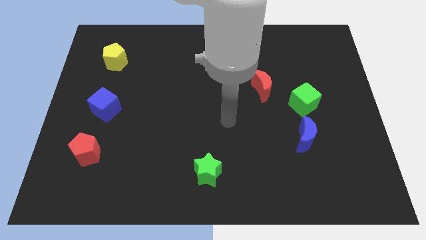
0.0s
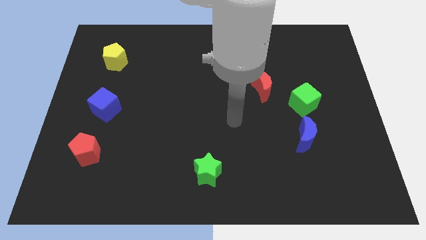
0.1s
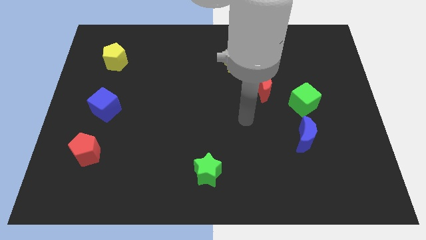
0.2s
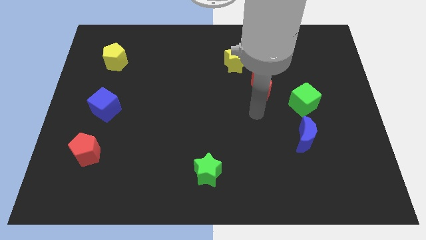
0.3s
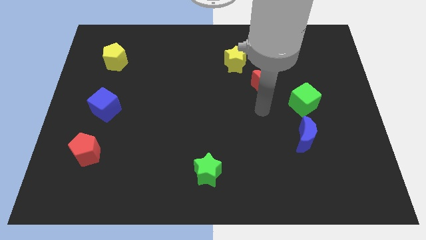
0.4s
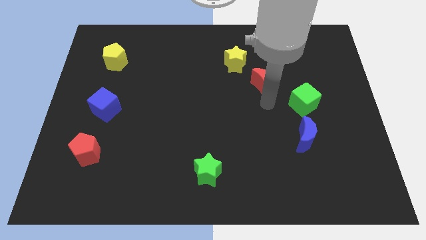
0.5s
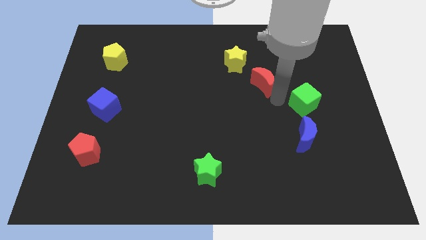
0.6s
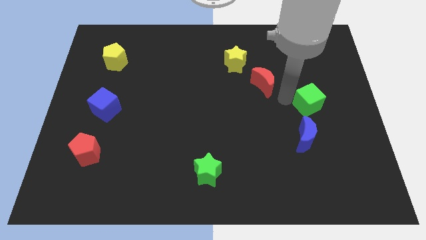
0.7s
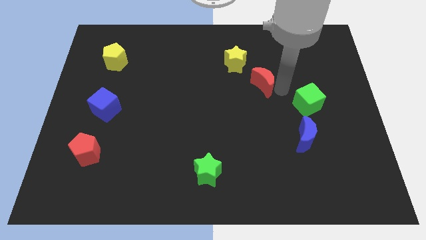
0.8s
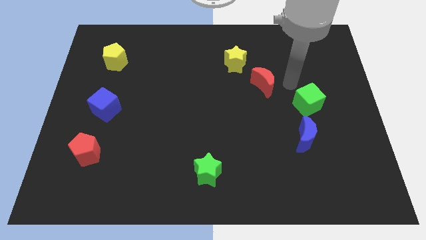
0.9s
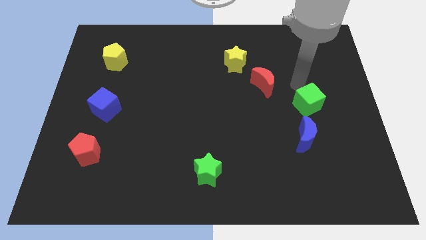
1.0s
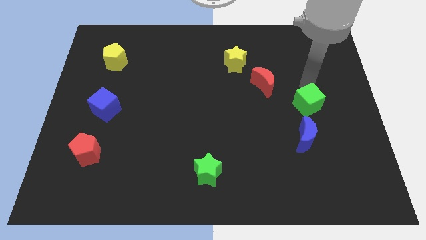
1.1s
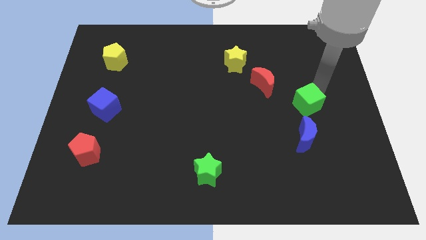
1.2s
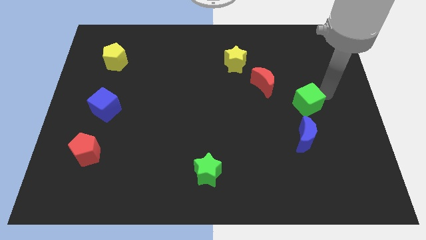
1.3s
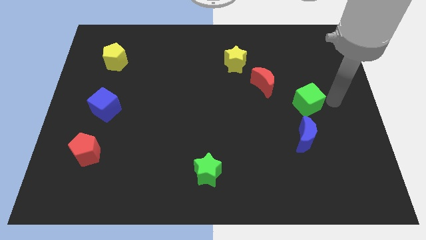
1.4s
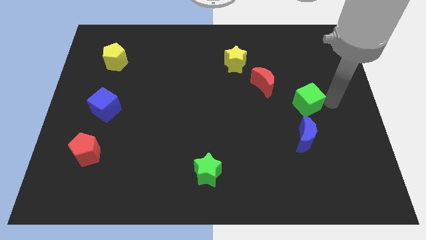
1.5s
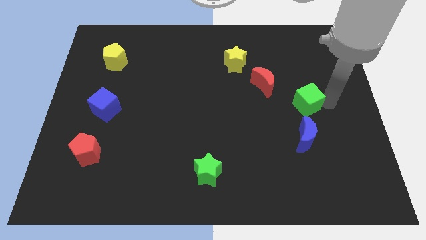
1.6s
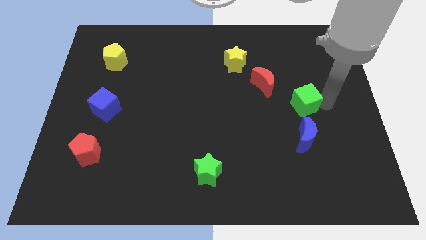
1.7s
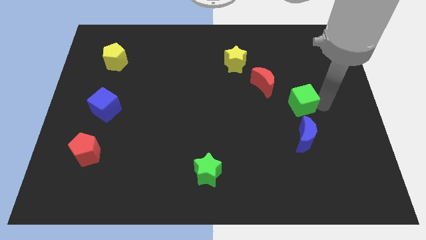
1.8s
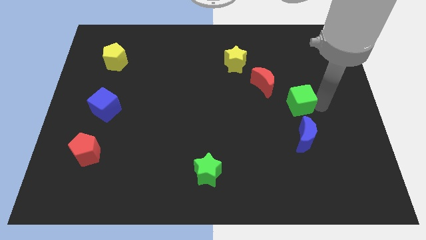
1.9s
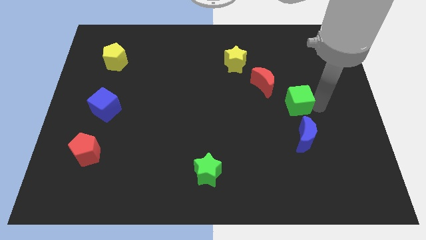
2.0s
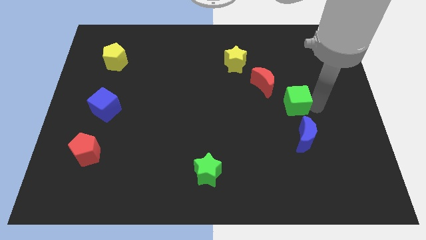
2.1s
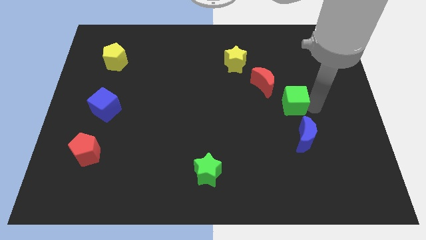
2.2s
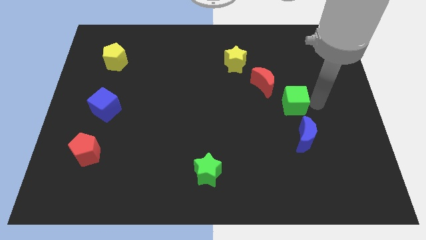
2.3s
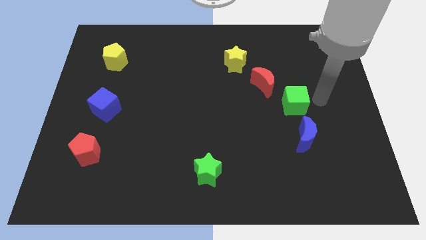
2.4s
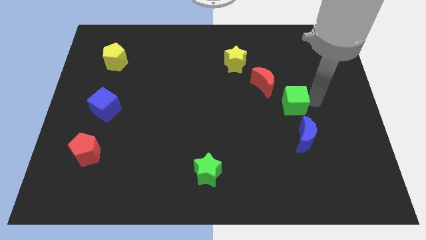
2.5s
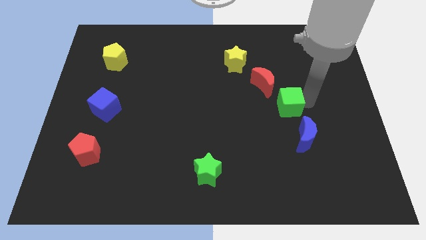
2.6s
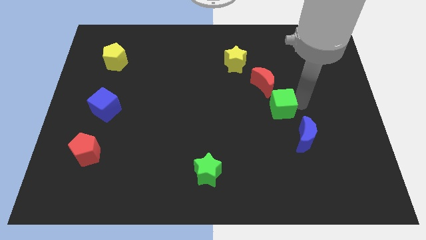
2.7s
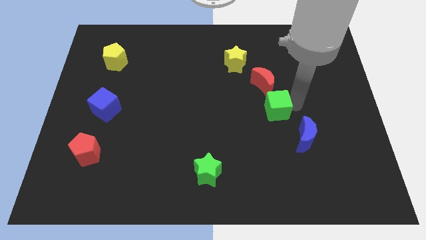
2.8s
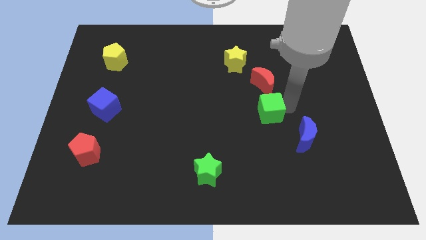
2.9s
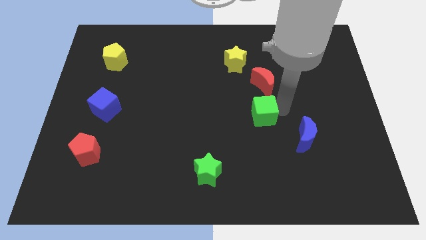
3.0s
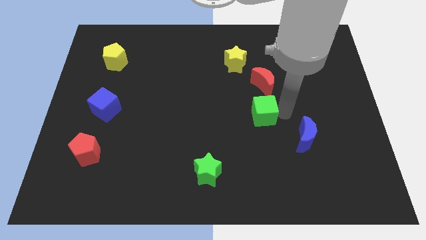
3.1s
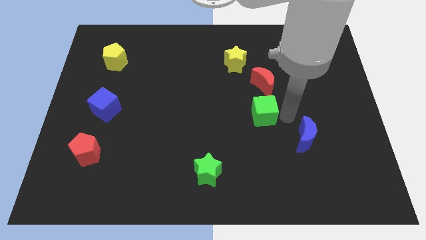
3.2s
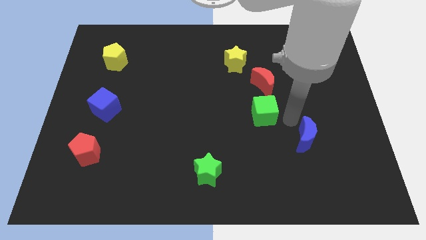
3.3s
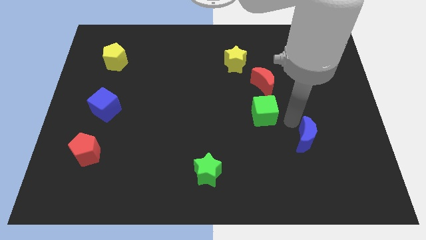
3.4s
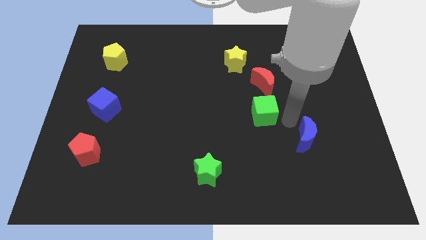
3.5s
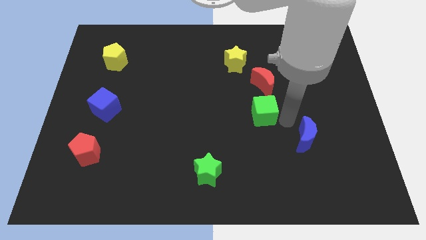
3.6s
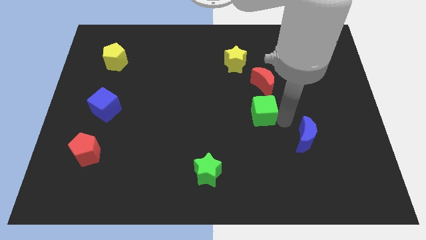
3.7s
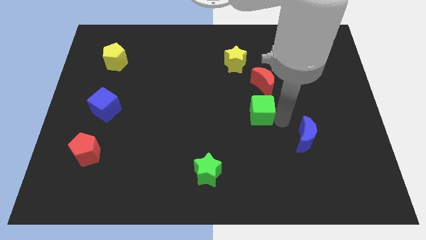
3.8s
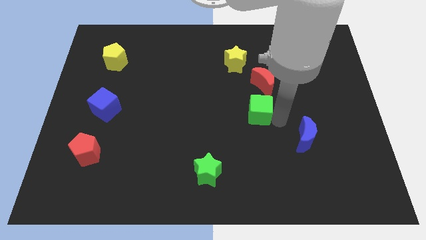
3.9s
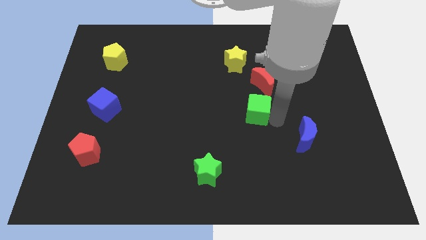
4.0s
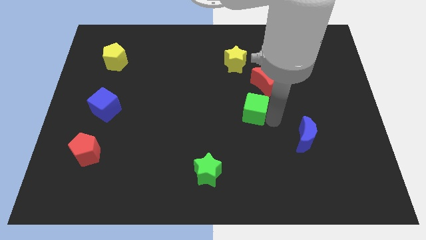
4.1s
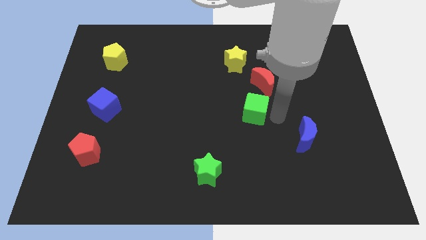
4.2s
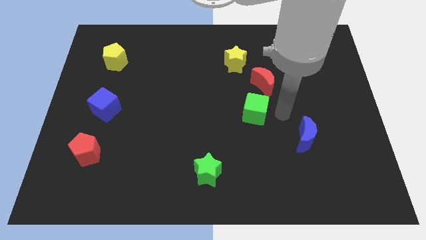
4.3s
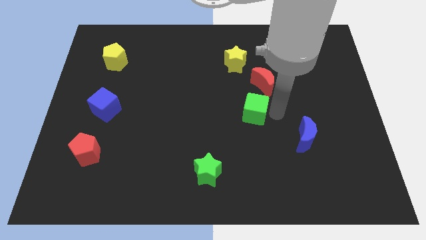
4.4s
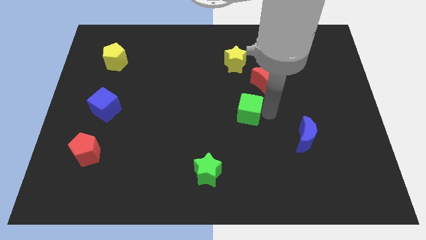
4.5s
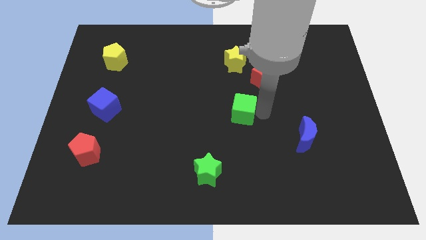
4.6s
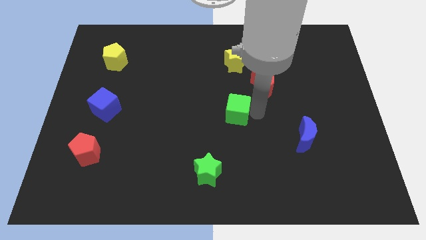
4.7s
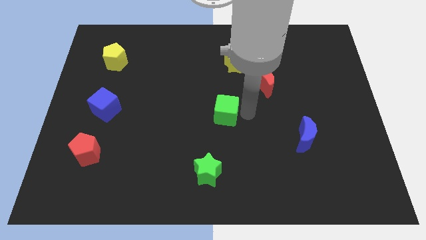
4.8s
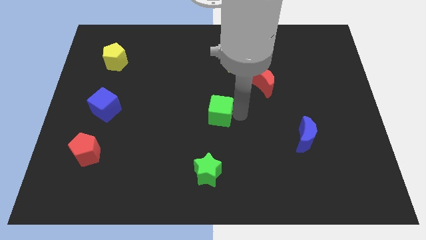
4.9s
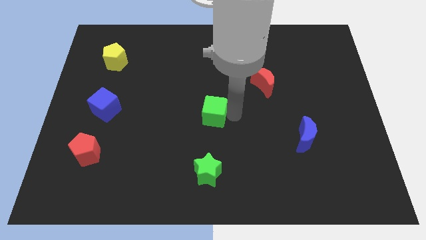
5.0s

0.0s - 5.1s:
push the green cube left

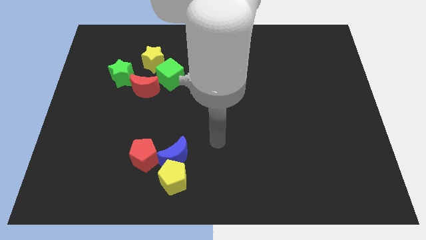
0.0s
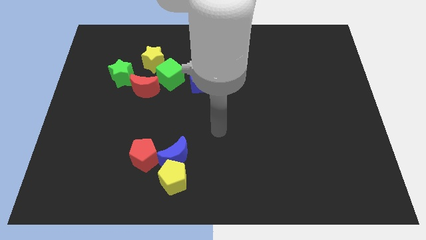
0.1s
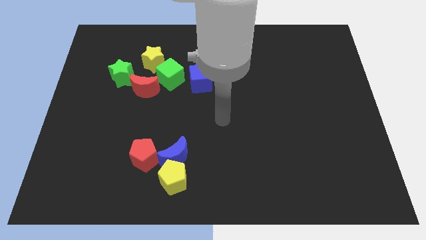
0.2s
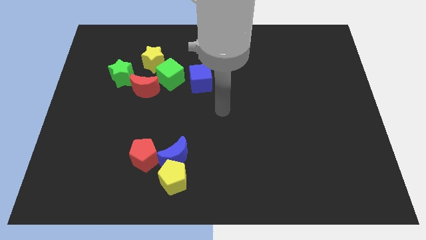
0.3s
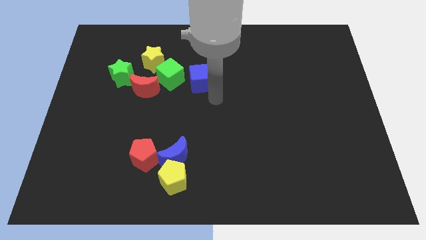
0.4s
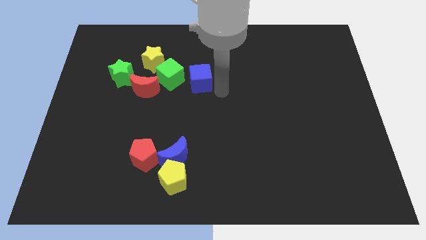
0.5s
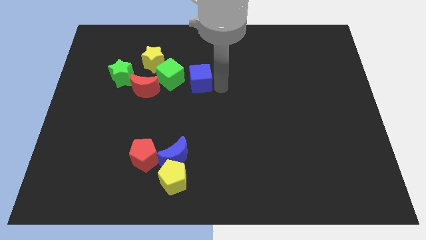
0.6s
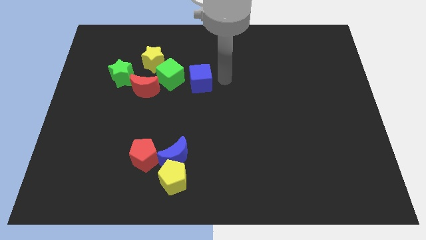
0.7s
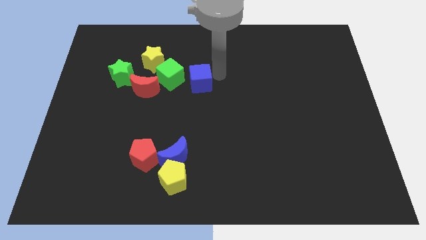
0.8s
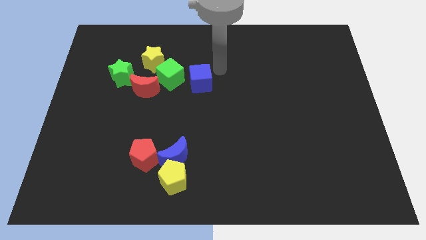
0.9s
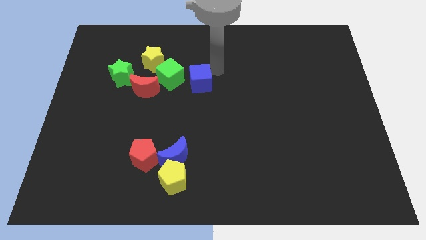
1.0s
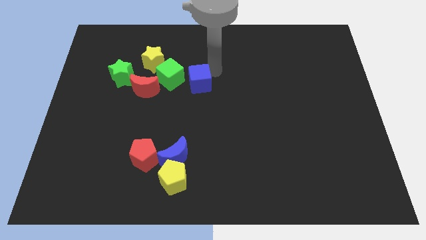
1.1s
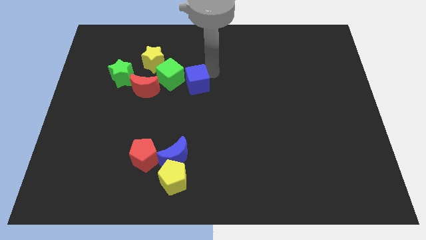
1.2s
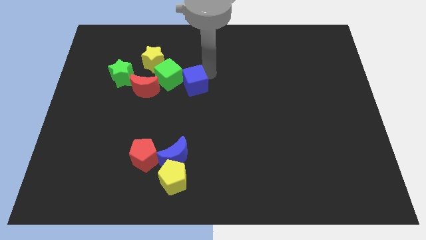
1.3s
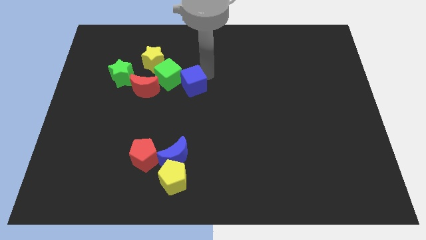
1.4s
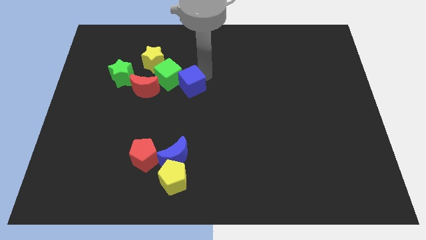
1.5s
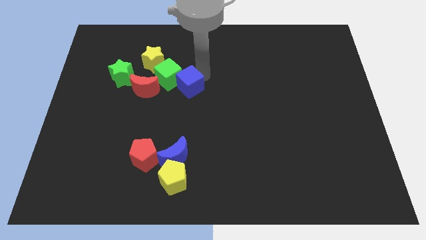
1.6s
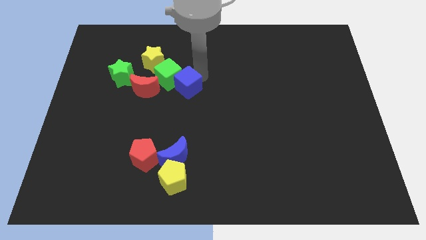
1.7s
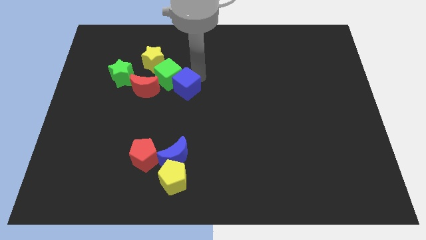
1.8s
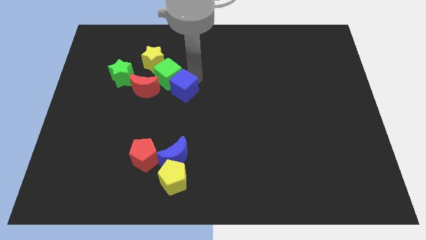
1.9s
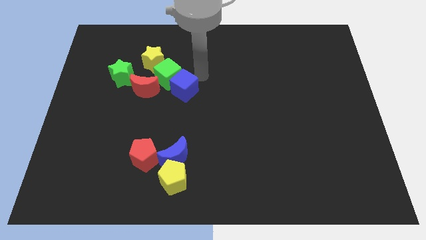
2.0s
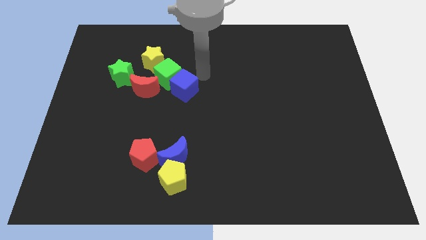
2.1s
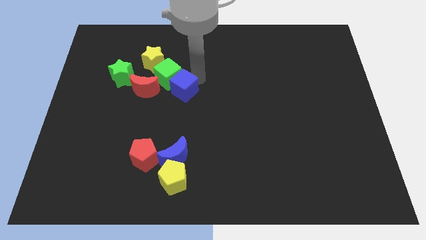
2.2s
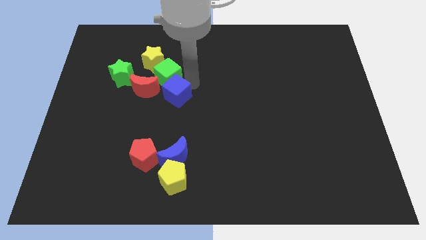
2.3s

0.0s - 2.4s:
slightly push the blue cube down and left diagonally

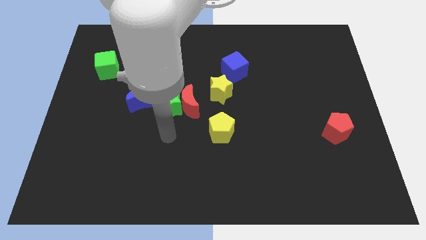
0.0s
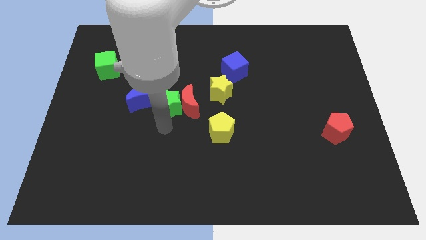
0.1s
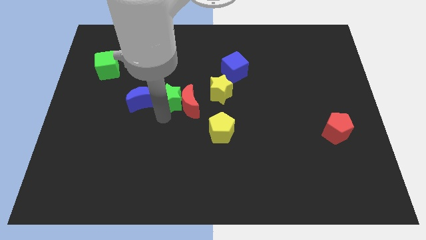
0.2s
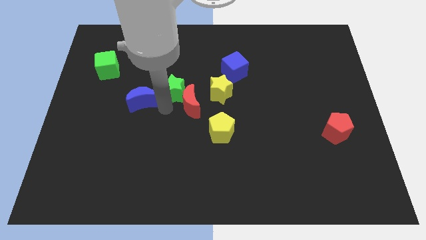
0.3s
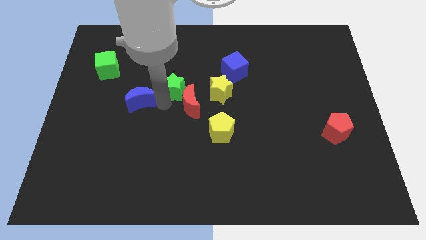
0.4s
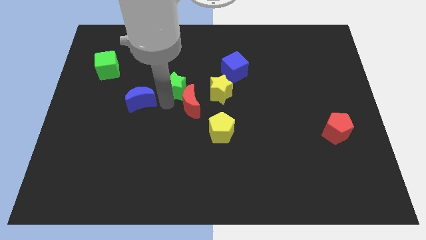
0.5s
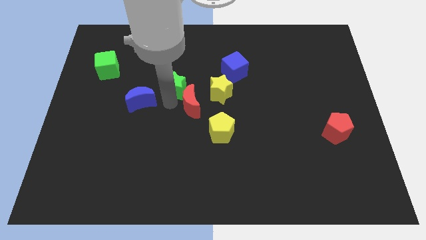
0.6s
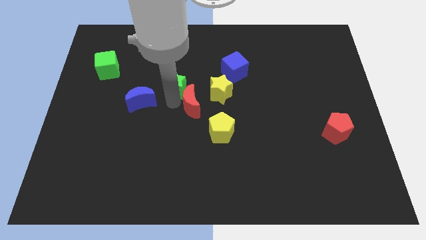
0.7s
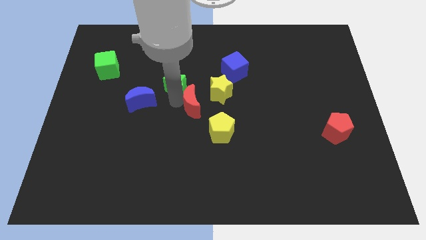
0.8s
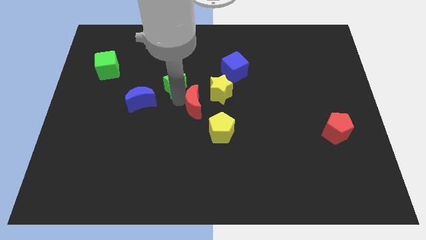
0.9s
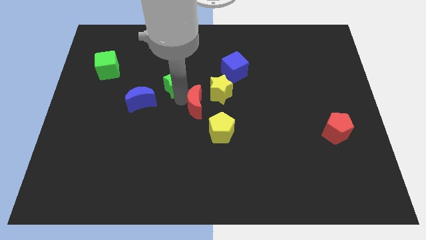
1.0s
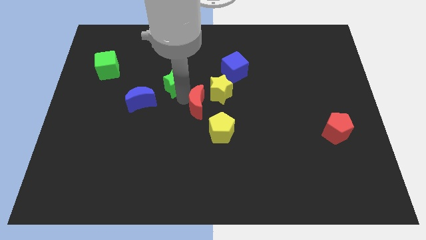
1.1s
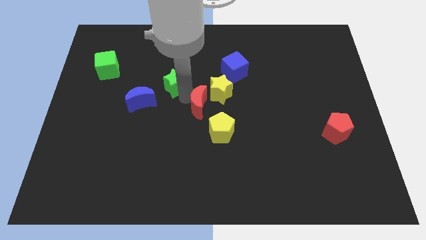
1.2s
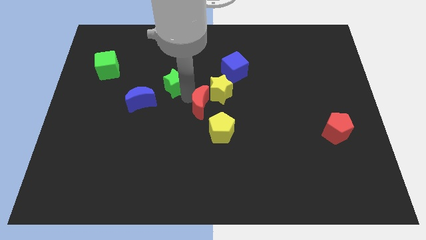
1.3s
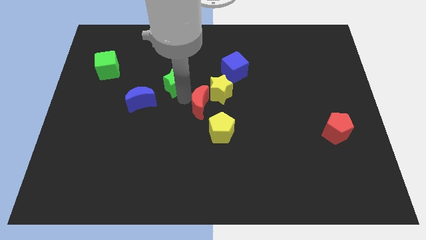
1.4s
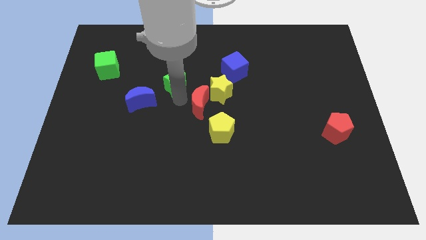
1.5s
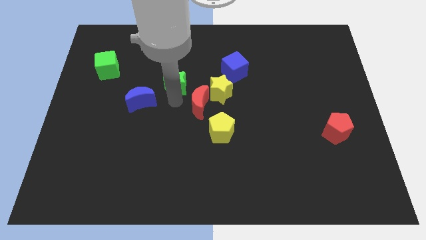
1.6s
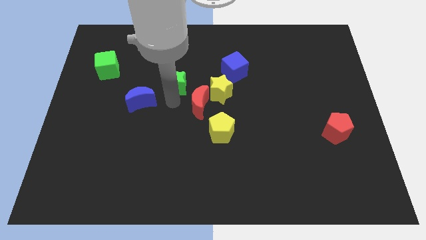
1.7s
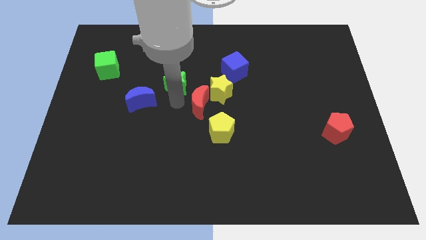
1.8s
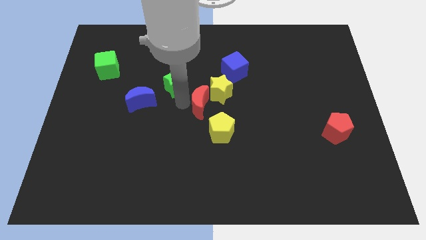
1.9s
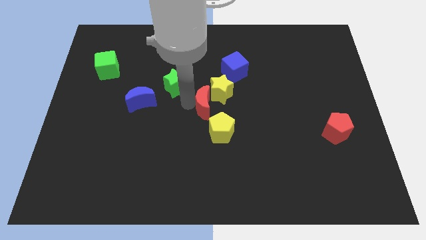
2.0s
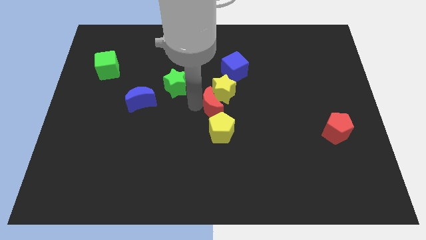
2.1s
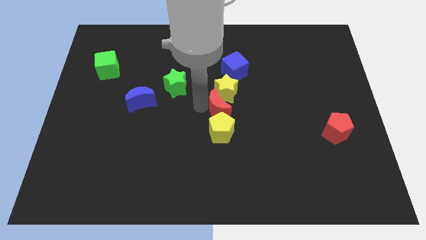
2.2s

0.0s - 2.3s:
push the red moon right somewhat
